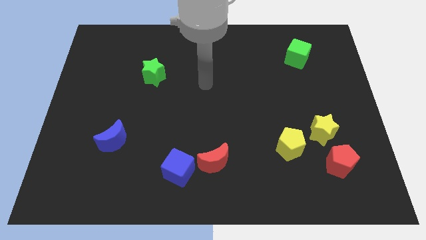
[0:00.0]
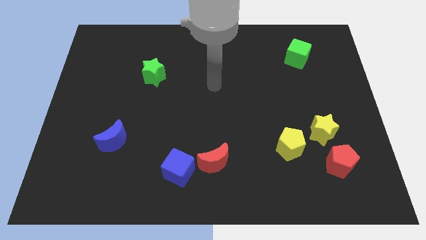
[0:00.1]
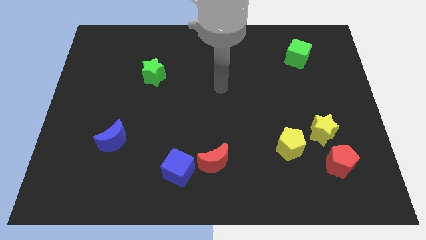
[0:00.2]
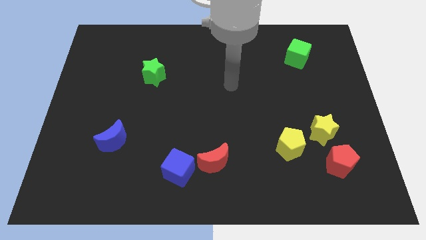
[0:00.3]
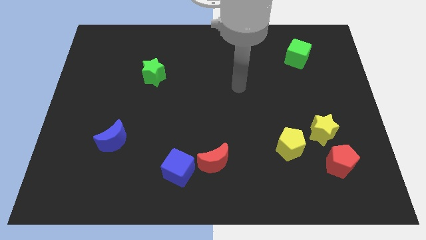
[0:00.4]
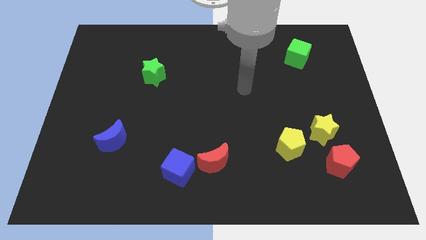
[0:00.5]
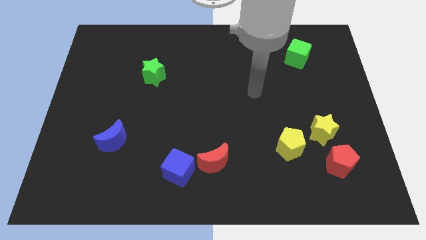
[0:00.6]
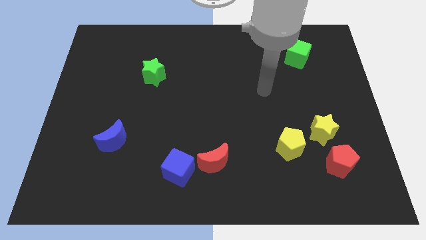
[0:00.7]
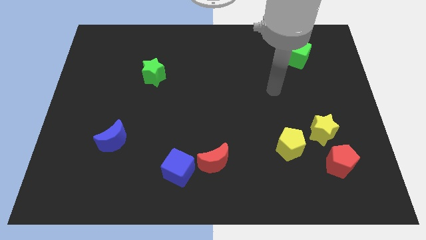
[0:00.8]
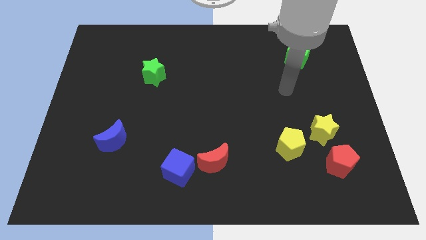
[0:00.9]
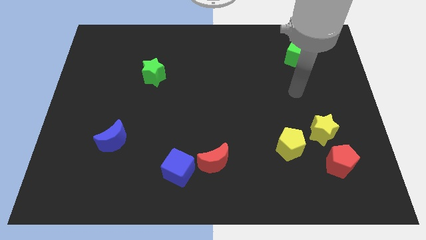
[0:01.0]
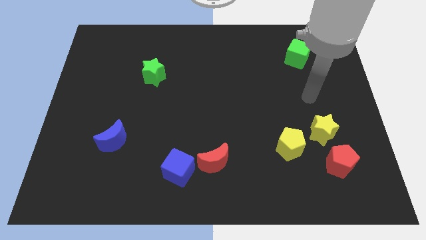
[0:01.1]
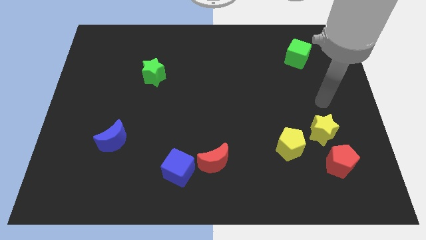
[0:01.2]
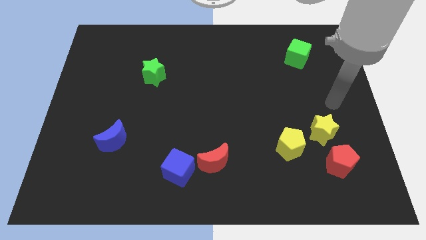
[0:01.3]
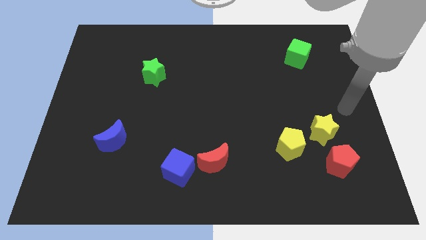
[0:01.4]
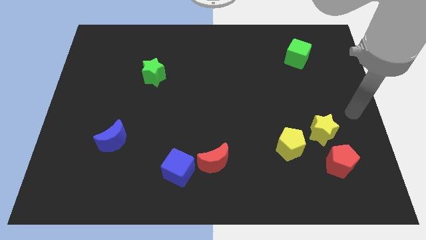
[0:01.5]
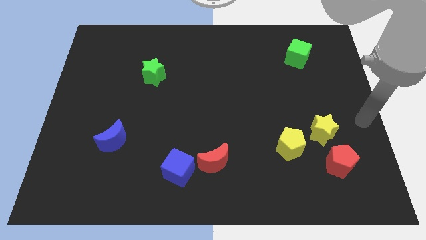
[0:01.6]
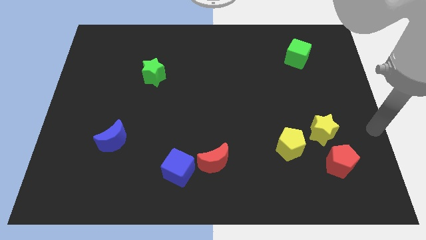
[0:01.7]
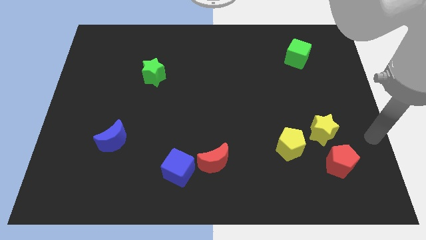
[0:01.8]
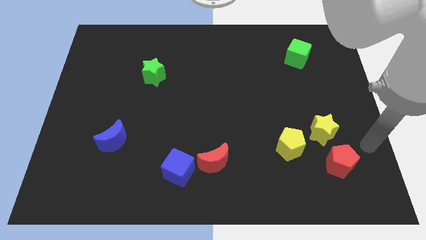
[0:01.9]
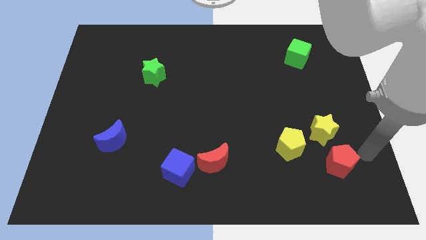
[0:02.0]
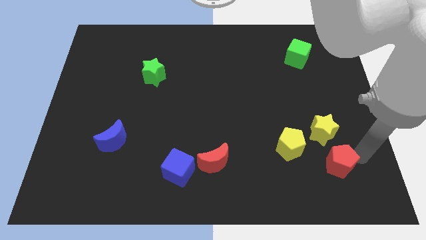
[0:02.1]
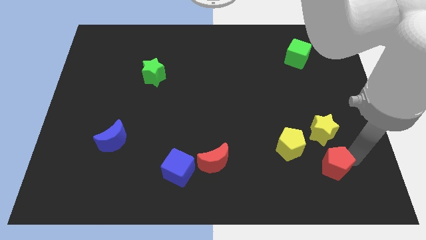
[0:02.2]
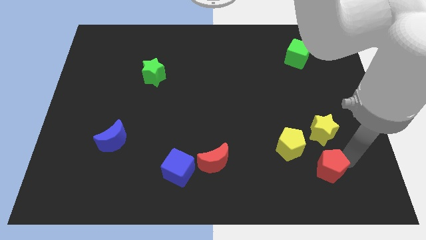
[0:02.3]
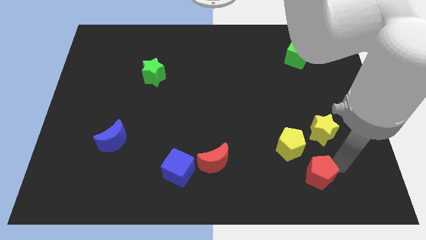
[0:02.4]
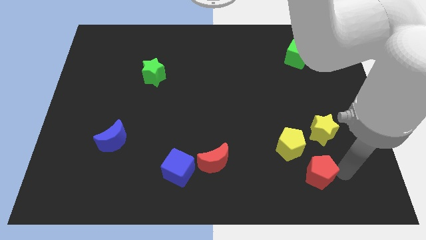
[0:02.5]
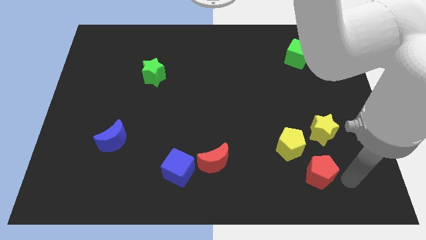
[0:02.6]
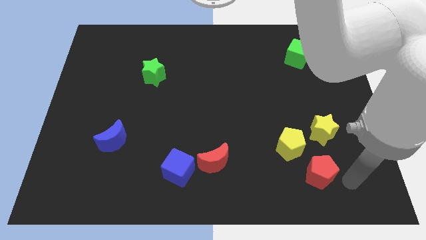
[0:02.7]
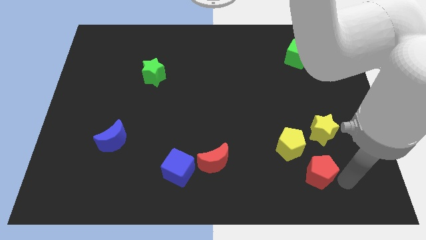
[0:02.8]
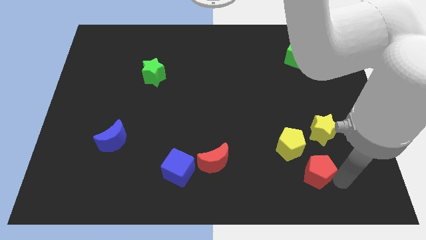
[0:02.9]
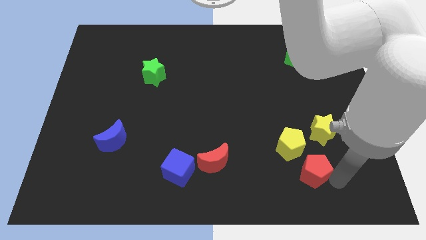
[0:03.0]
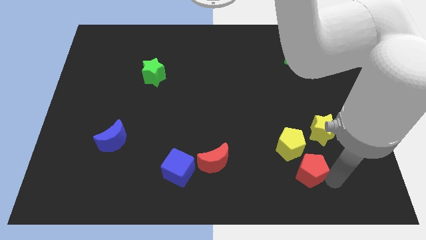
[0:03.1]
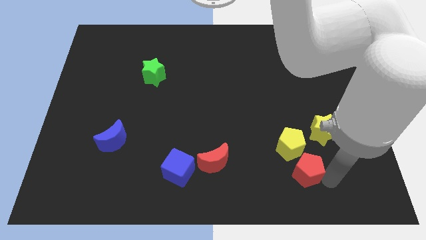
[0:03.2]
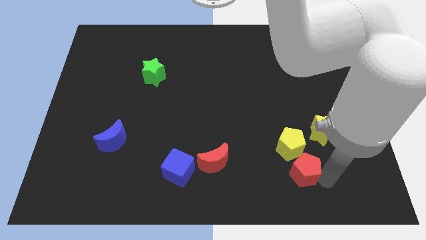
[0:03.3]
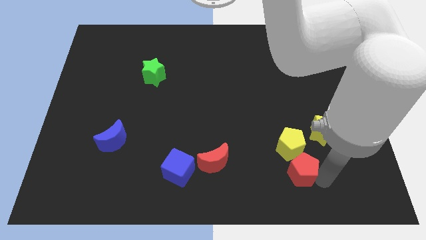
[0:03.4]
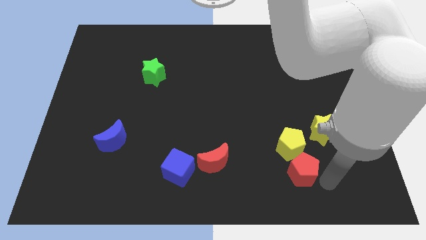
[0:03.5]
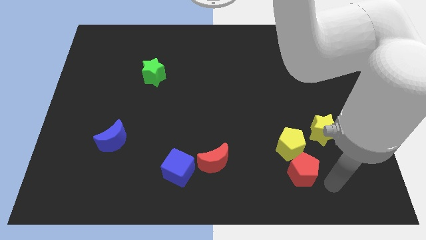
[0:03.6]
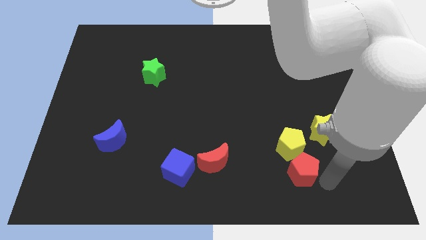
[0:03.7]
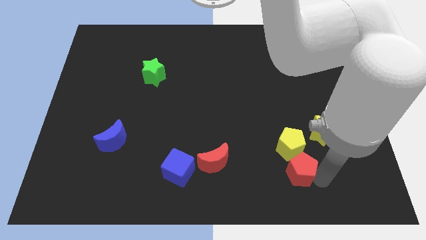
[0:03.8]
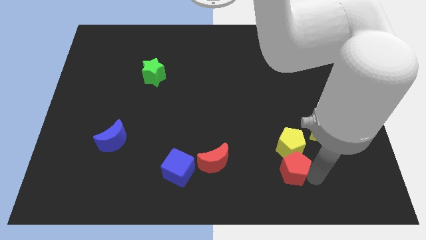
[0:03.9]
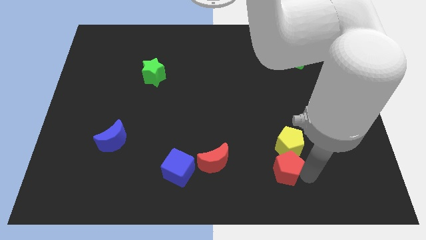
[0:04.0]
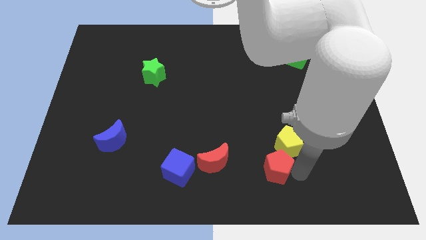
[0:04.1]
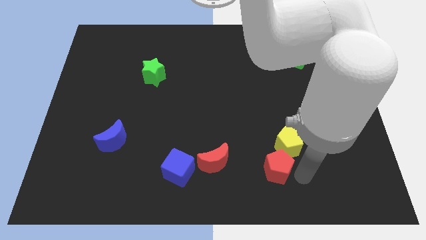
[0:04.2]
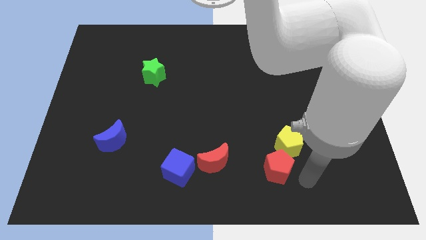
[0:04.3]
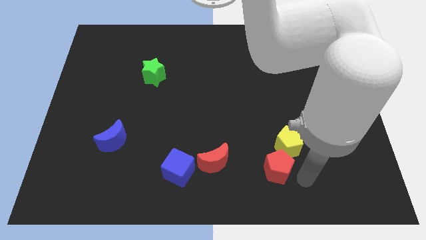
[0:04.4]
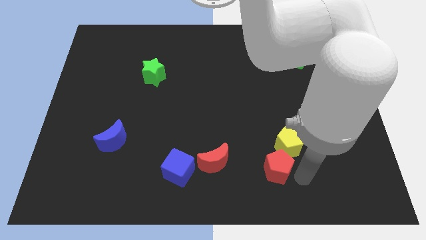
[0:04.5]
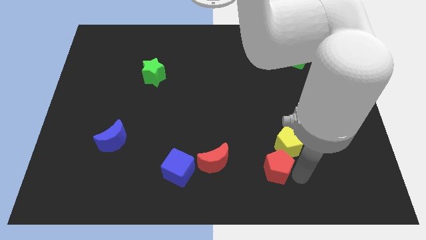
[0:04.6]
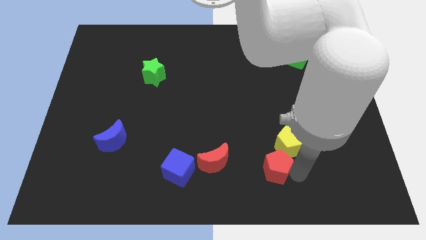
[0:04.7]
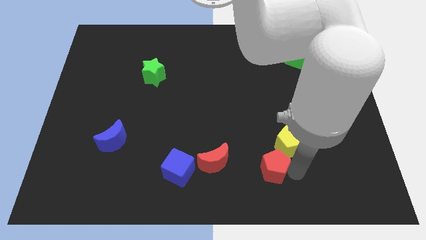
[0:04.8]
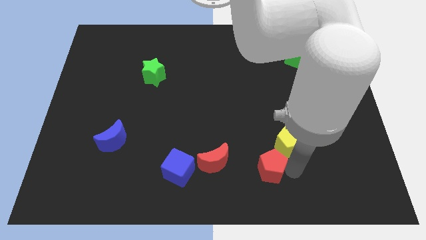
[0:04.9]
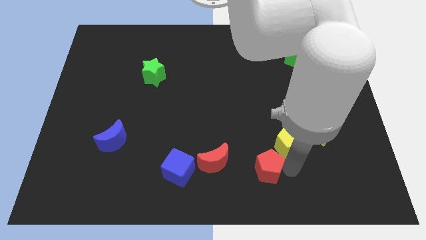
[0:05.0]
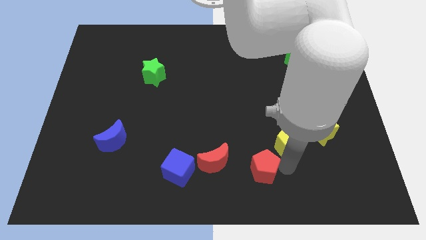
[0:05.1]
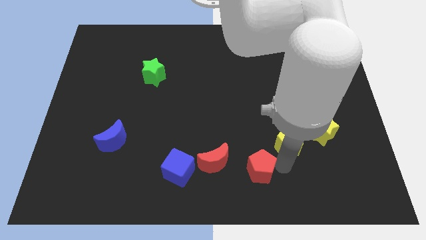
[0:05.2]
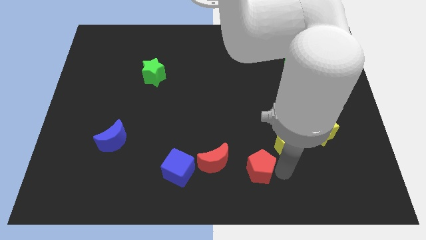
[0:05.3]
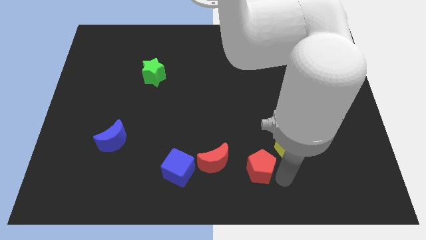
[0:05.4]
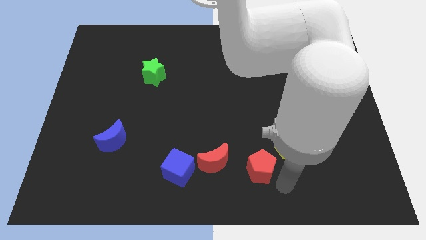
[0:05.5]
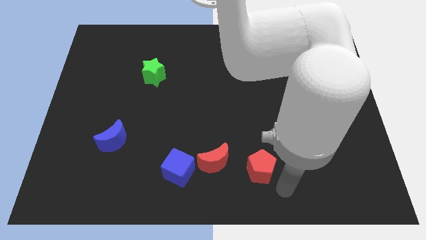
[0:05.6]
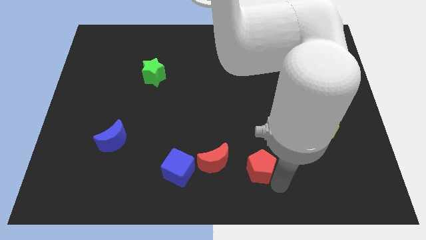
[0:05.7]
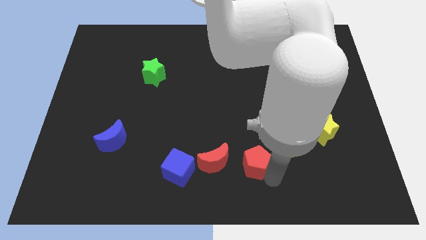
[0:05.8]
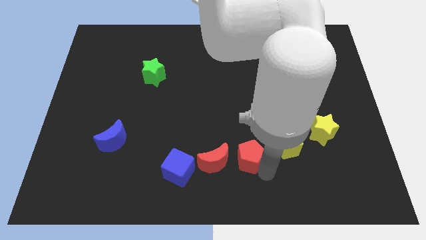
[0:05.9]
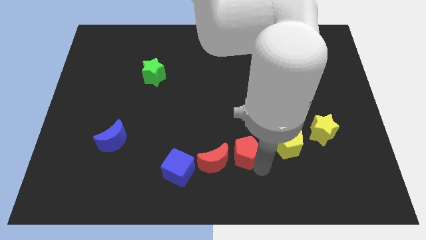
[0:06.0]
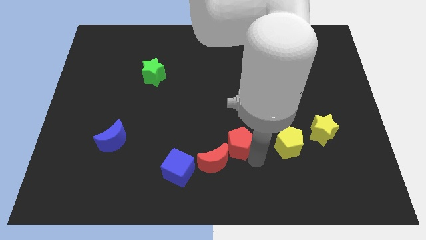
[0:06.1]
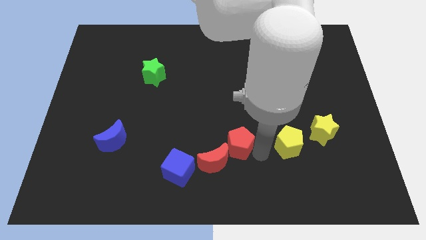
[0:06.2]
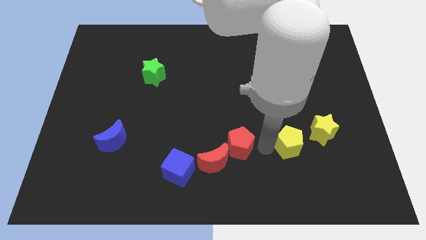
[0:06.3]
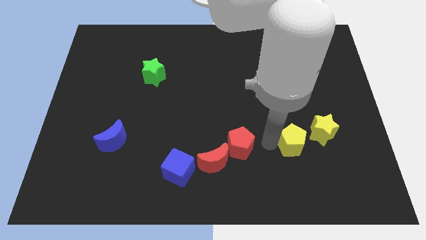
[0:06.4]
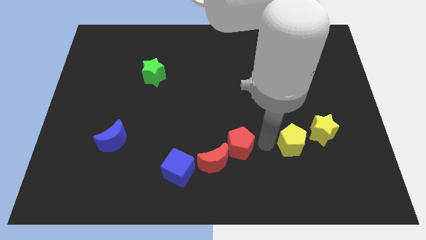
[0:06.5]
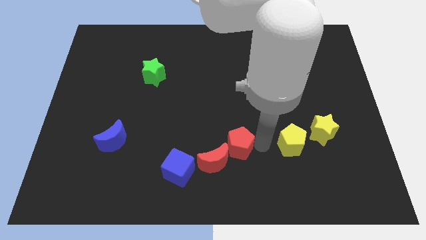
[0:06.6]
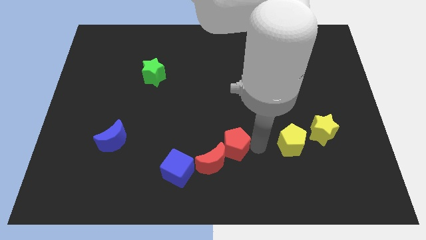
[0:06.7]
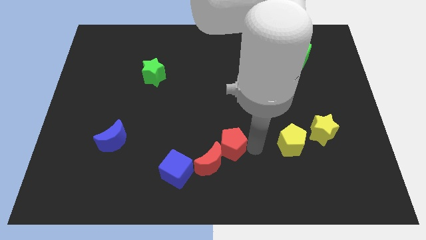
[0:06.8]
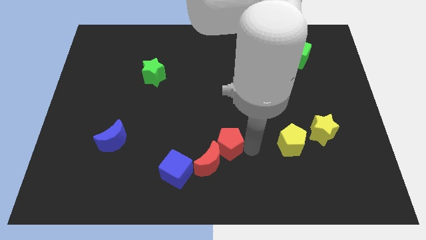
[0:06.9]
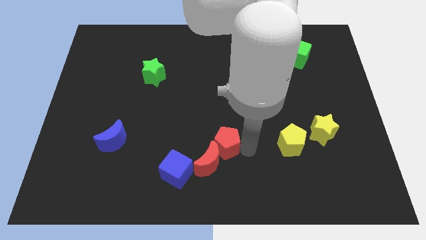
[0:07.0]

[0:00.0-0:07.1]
slide the red pentagon to the top right of the blue cube
